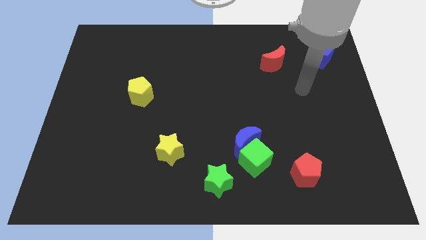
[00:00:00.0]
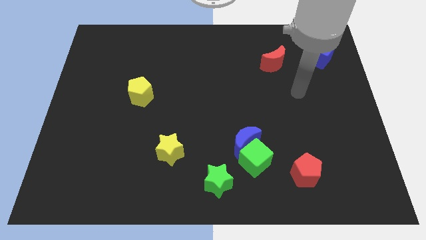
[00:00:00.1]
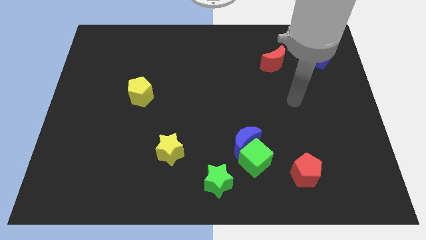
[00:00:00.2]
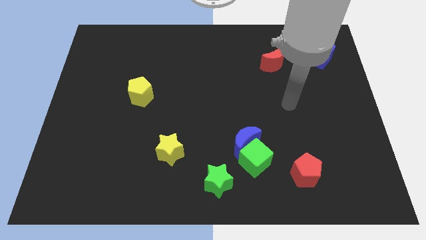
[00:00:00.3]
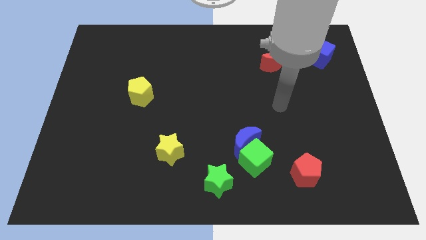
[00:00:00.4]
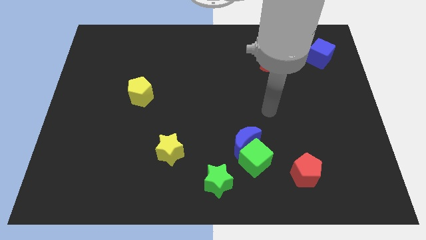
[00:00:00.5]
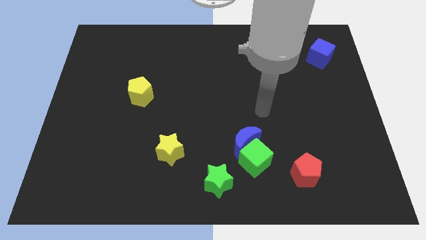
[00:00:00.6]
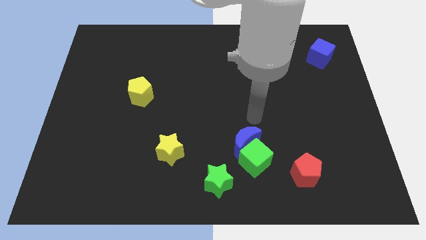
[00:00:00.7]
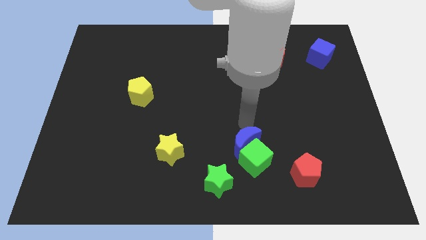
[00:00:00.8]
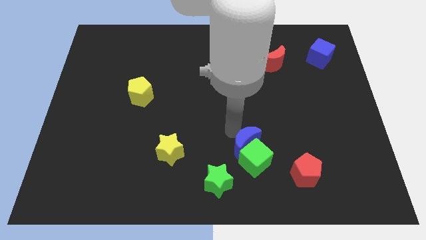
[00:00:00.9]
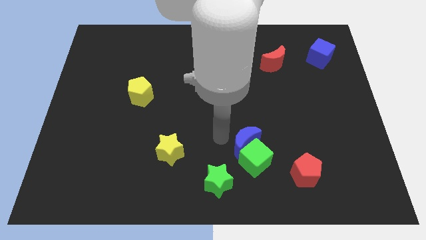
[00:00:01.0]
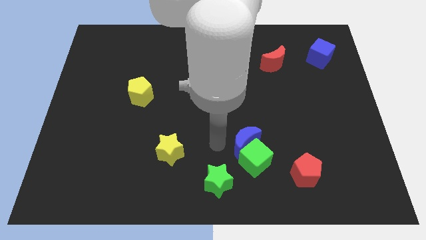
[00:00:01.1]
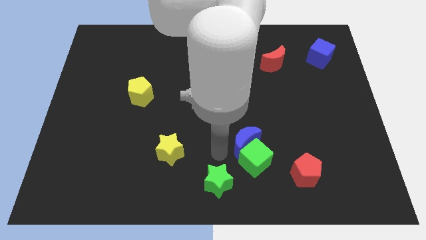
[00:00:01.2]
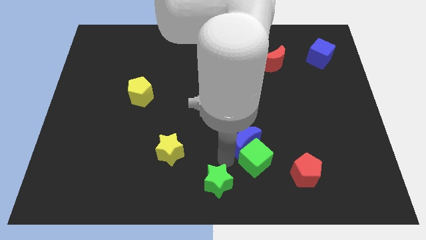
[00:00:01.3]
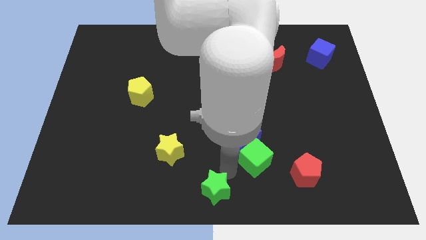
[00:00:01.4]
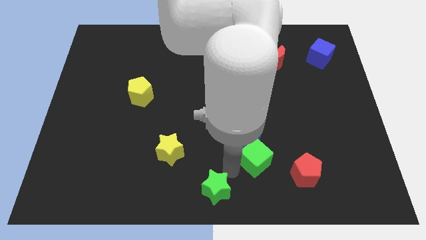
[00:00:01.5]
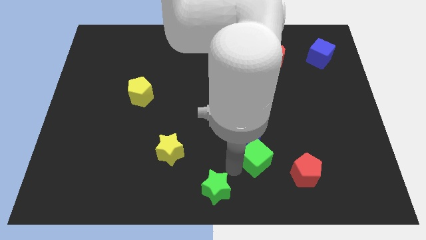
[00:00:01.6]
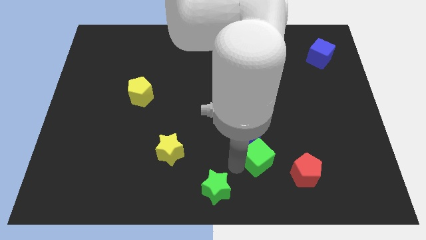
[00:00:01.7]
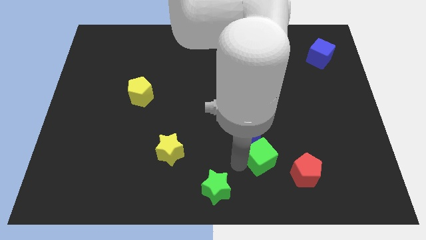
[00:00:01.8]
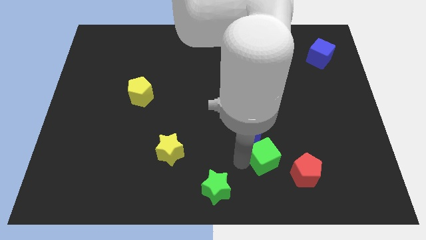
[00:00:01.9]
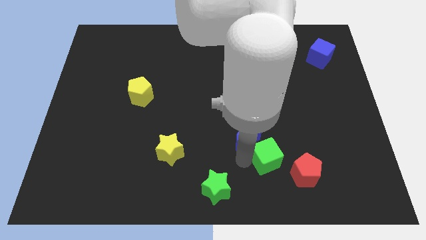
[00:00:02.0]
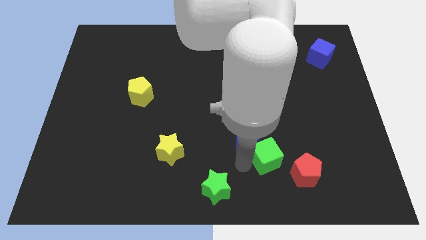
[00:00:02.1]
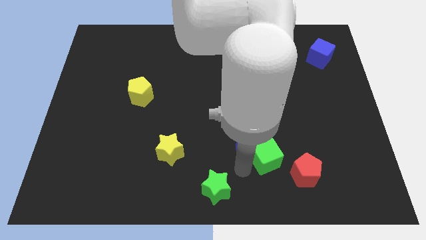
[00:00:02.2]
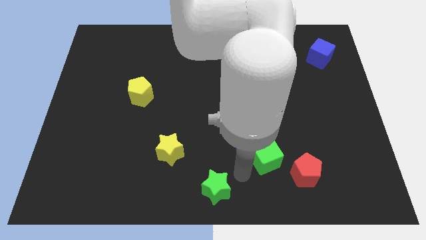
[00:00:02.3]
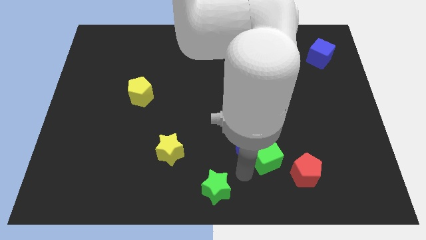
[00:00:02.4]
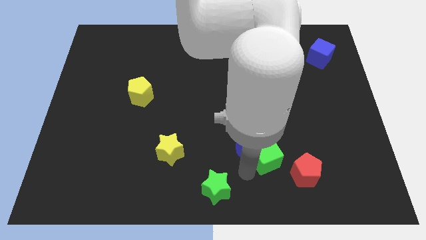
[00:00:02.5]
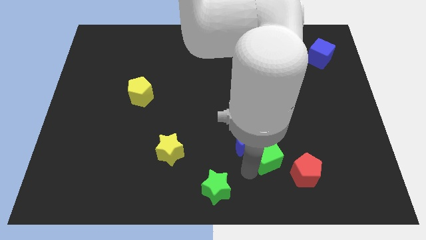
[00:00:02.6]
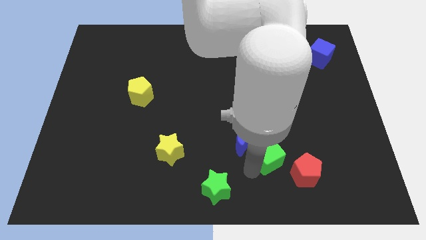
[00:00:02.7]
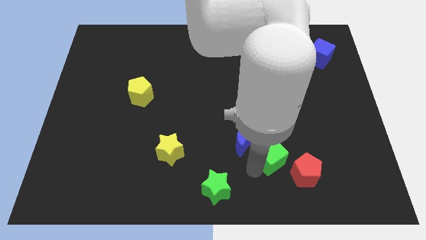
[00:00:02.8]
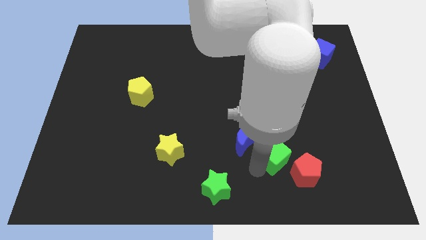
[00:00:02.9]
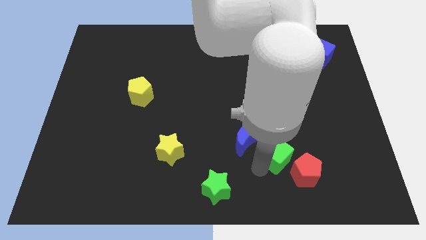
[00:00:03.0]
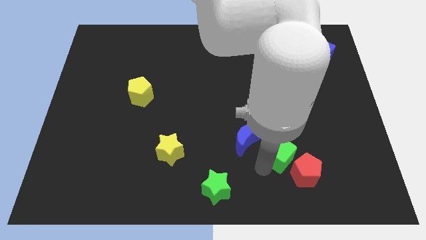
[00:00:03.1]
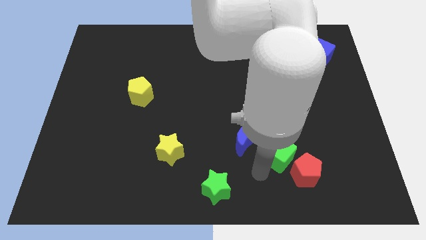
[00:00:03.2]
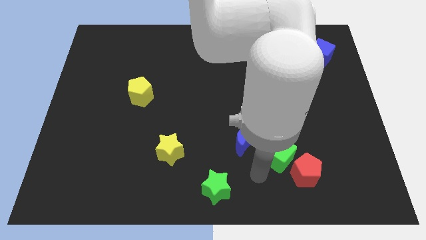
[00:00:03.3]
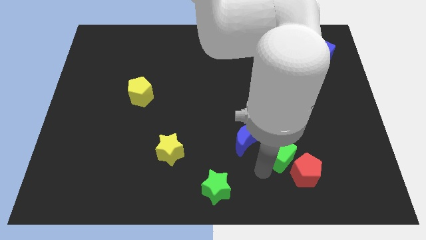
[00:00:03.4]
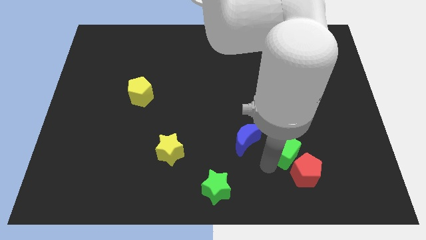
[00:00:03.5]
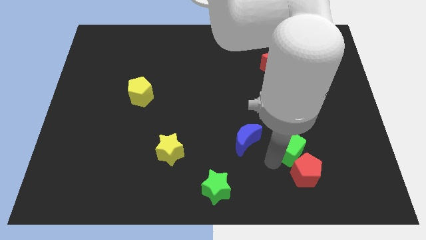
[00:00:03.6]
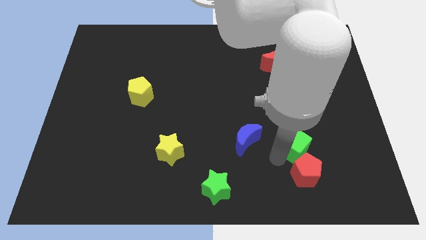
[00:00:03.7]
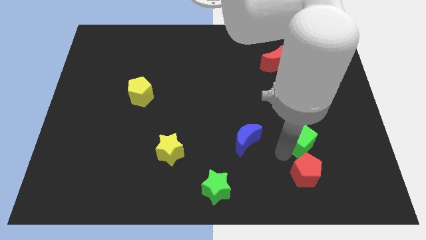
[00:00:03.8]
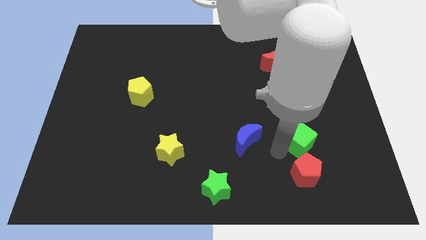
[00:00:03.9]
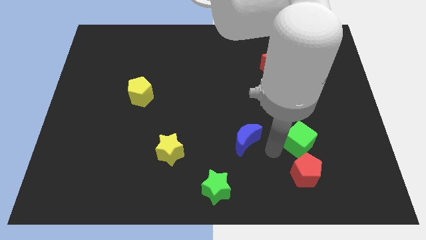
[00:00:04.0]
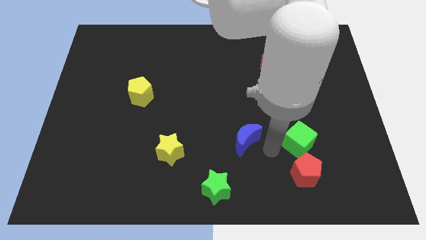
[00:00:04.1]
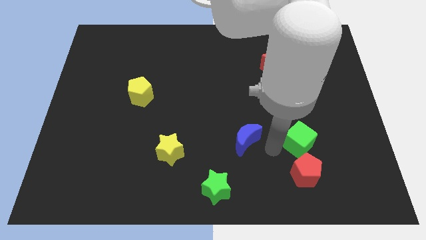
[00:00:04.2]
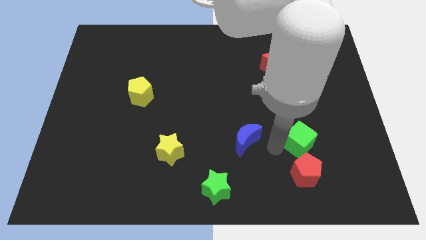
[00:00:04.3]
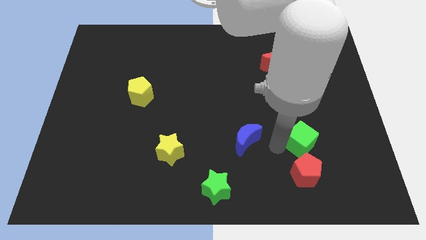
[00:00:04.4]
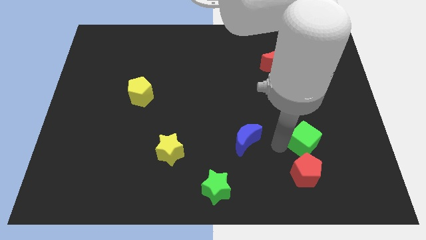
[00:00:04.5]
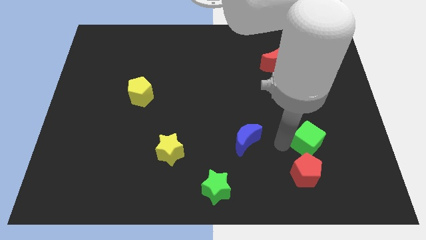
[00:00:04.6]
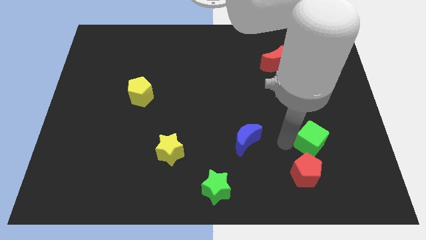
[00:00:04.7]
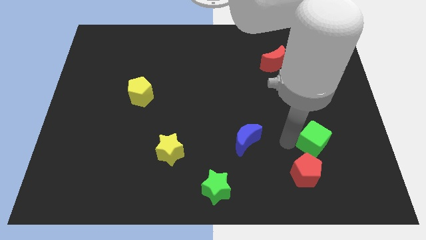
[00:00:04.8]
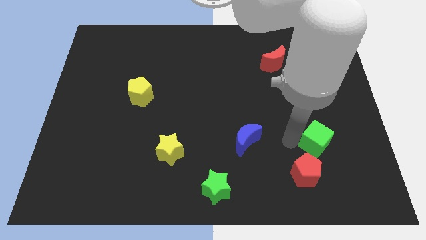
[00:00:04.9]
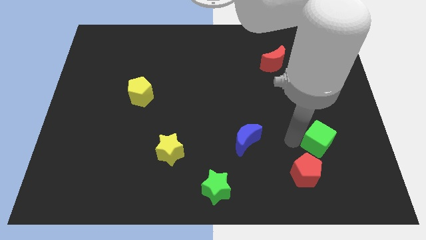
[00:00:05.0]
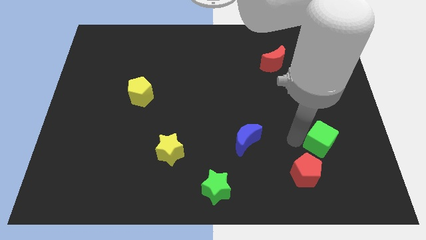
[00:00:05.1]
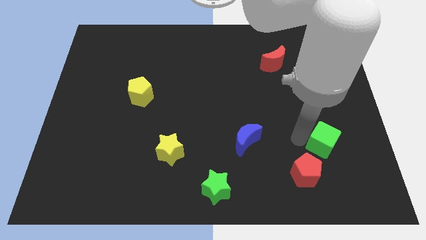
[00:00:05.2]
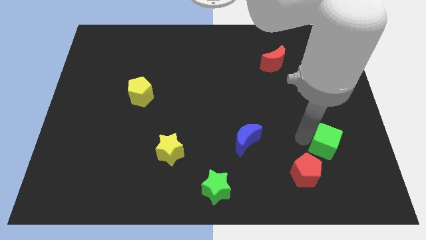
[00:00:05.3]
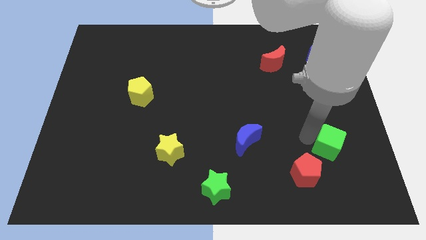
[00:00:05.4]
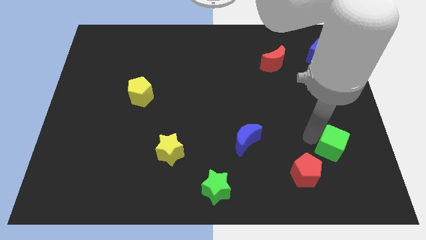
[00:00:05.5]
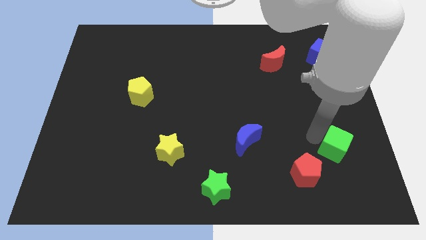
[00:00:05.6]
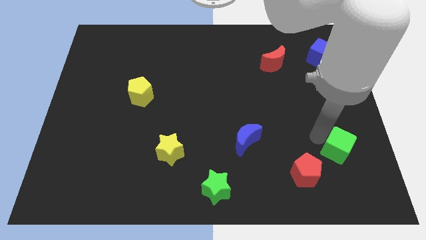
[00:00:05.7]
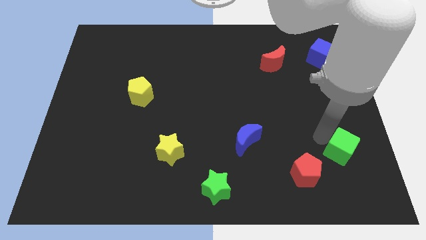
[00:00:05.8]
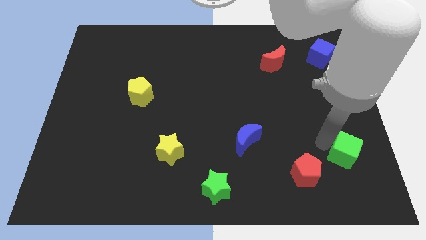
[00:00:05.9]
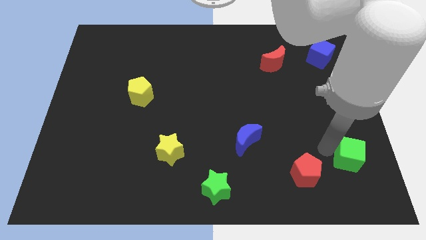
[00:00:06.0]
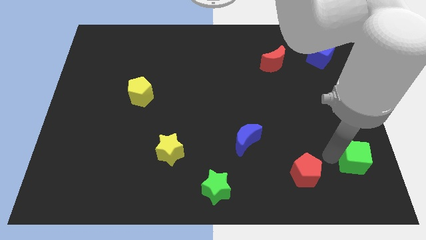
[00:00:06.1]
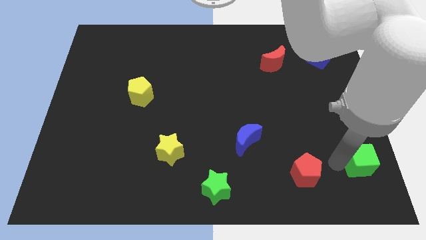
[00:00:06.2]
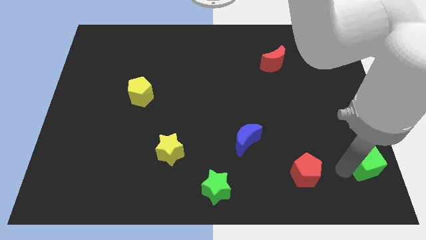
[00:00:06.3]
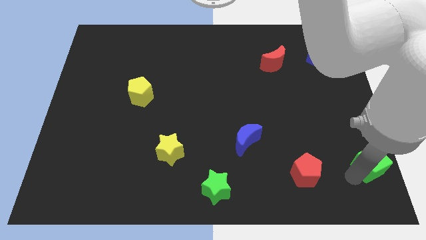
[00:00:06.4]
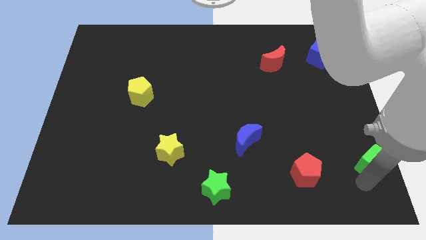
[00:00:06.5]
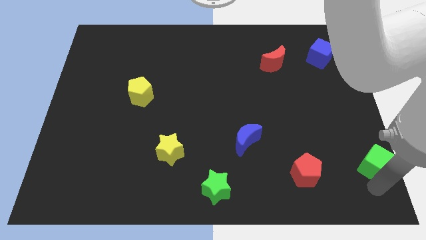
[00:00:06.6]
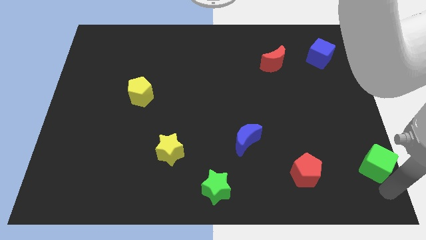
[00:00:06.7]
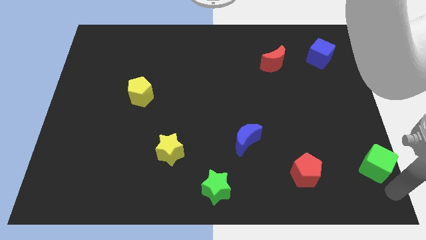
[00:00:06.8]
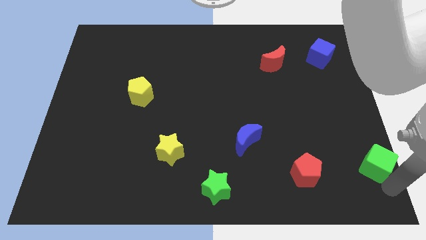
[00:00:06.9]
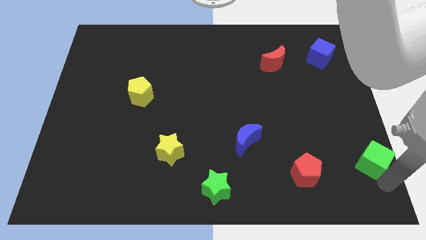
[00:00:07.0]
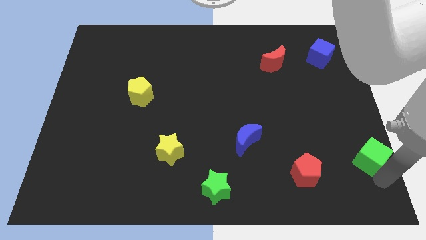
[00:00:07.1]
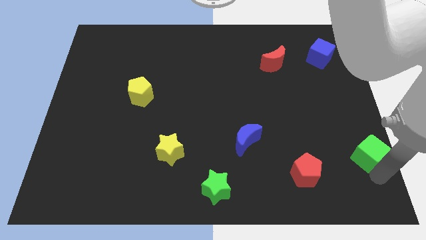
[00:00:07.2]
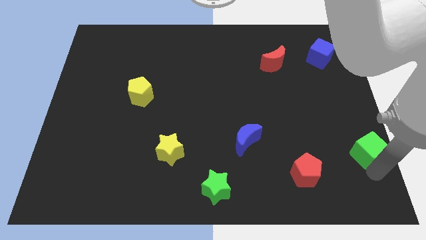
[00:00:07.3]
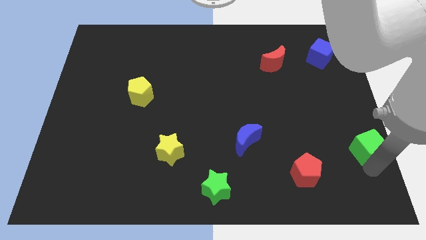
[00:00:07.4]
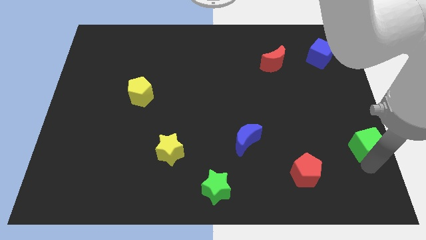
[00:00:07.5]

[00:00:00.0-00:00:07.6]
slide the green cube to the right side of the board
